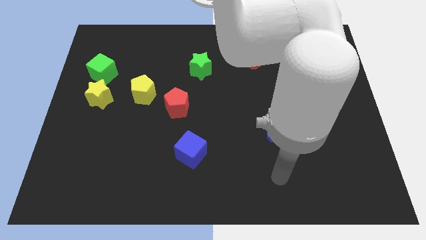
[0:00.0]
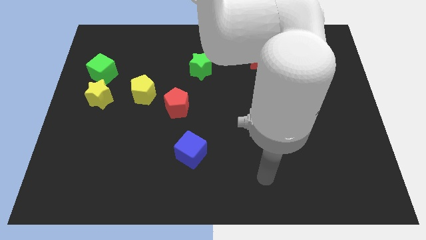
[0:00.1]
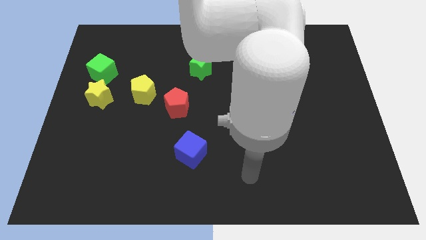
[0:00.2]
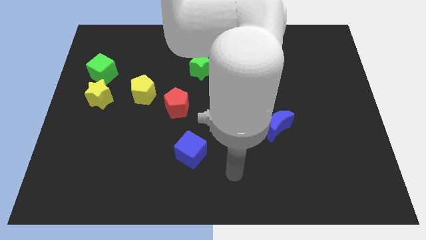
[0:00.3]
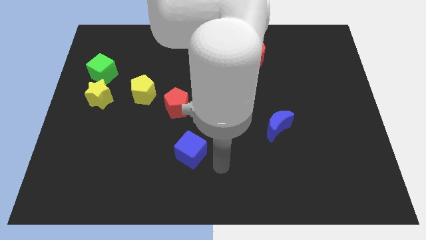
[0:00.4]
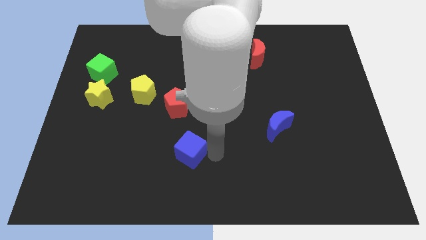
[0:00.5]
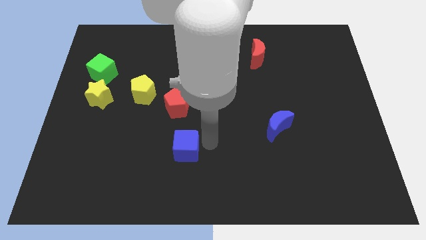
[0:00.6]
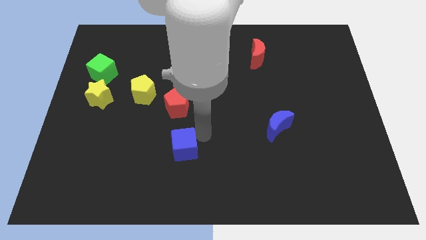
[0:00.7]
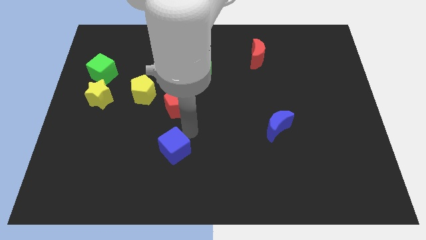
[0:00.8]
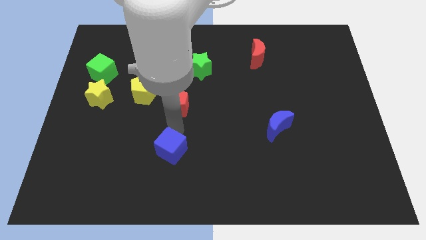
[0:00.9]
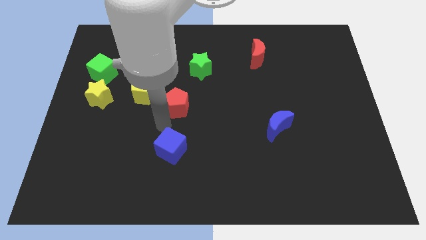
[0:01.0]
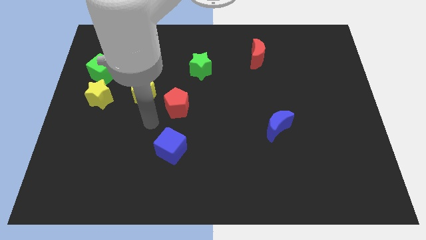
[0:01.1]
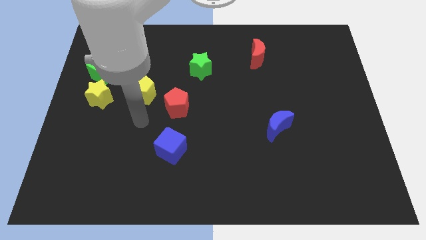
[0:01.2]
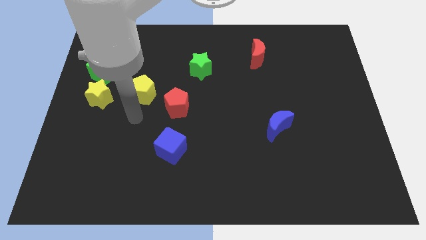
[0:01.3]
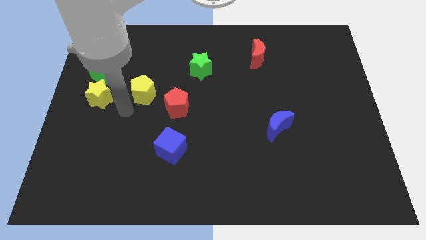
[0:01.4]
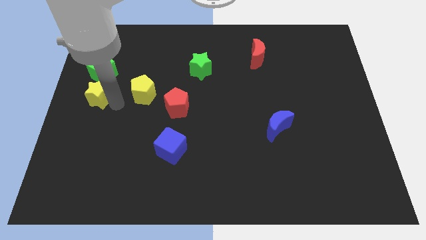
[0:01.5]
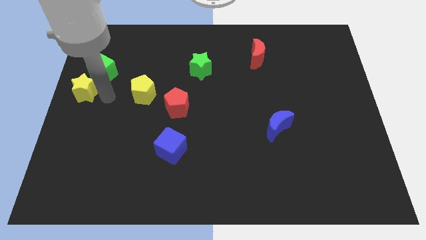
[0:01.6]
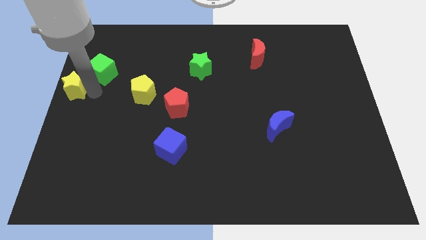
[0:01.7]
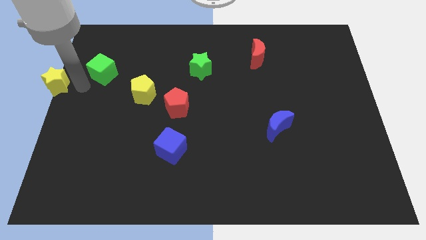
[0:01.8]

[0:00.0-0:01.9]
move the green cube away from the yellow star

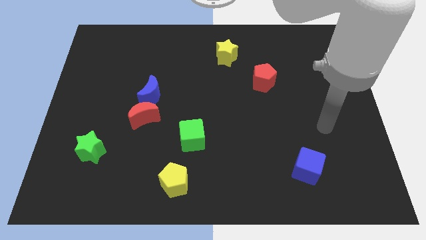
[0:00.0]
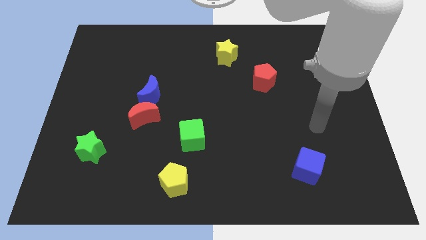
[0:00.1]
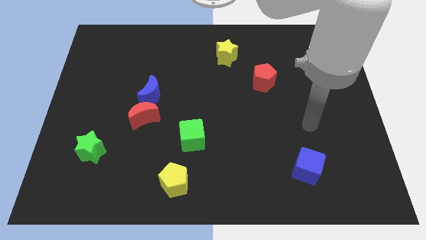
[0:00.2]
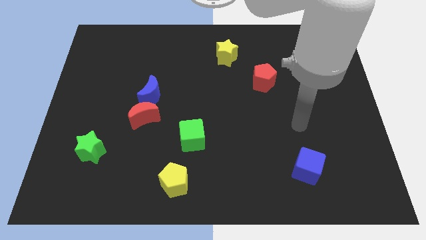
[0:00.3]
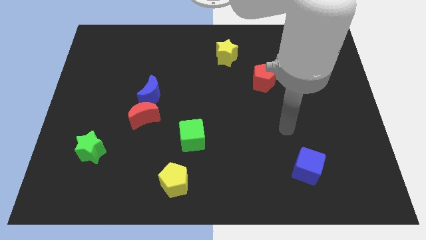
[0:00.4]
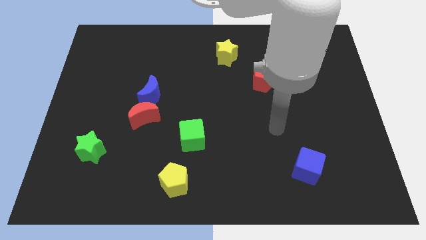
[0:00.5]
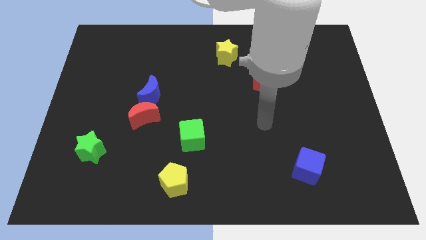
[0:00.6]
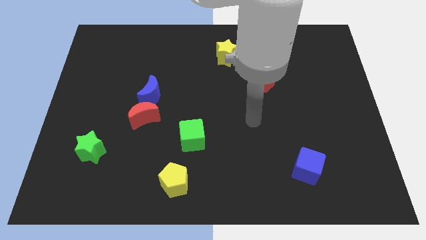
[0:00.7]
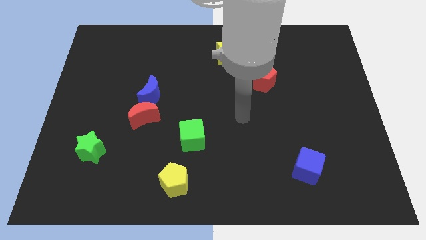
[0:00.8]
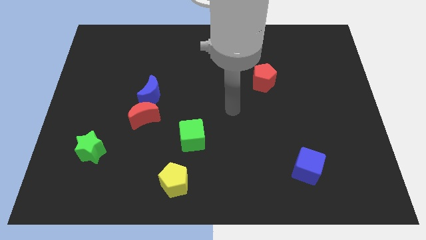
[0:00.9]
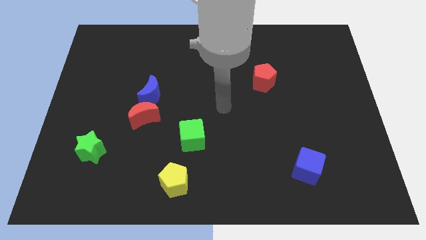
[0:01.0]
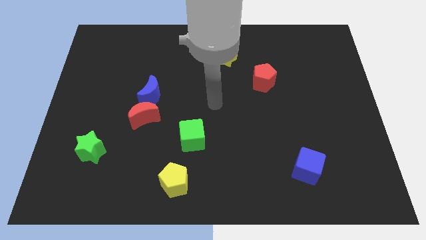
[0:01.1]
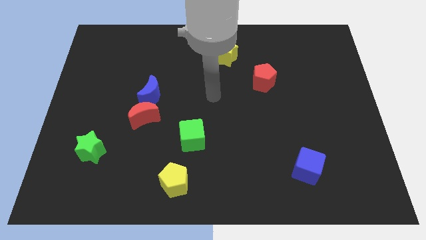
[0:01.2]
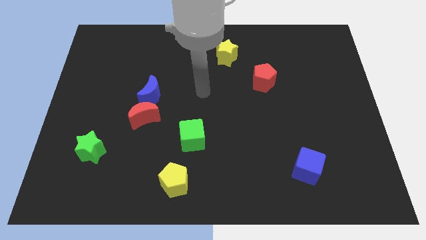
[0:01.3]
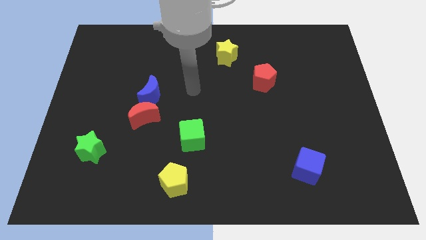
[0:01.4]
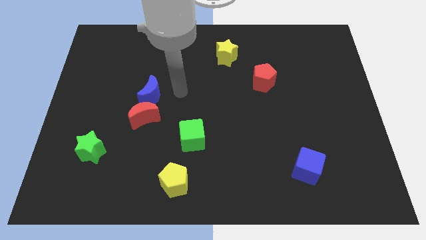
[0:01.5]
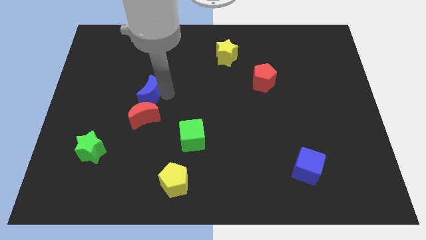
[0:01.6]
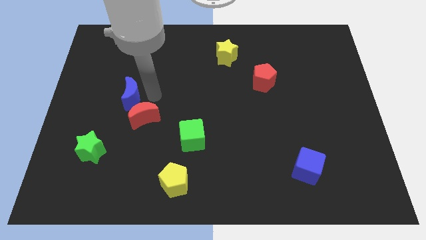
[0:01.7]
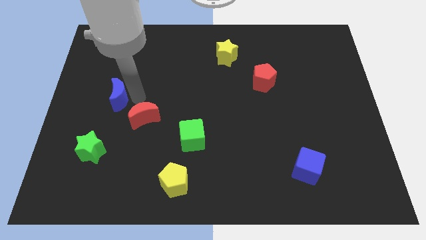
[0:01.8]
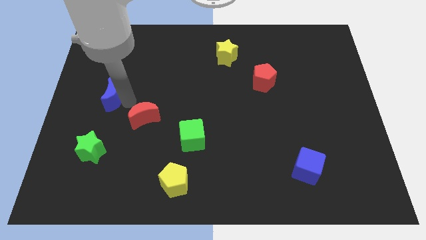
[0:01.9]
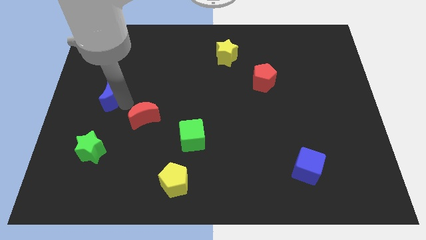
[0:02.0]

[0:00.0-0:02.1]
move the red moon away from the blue moon

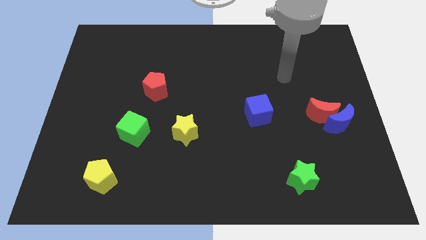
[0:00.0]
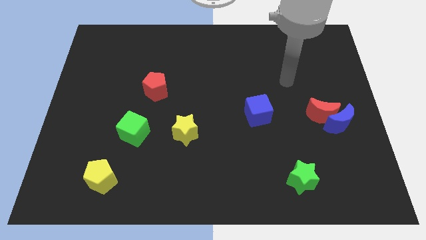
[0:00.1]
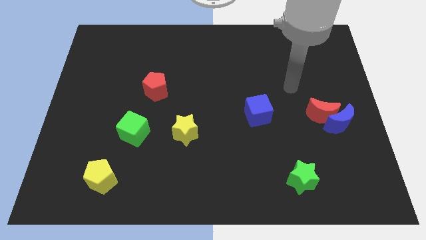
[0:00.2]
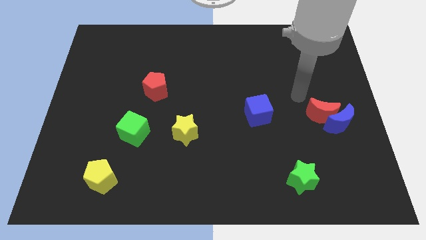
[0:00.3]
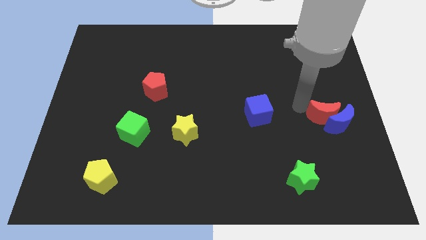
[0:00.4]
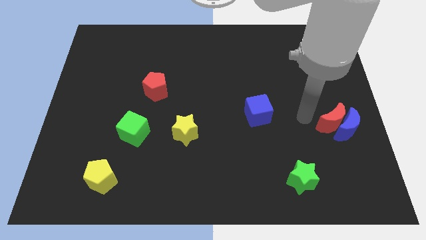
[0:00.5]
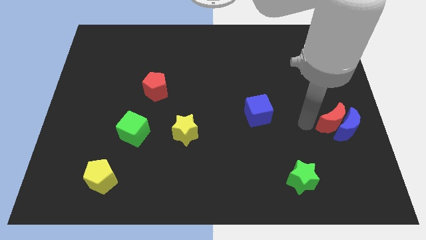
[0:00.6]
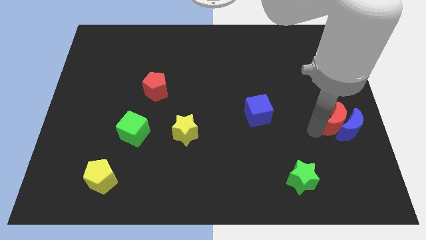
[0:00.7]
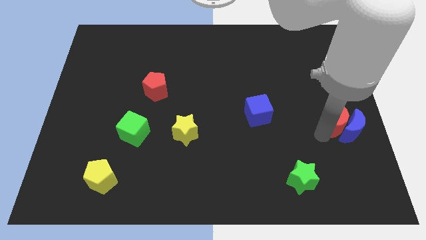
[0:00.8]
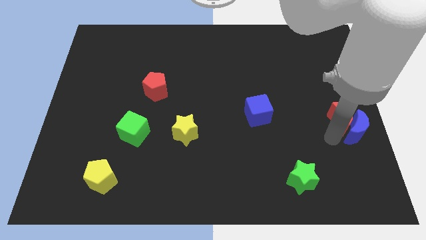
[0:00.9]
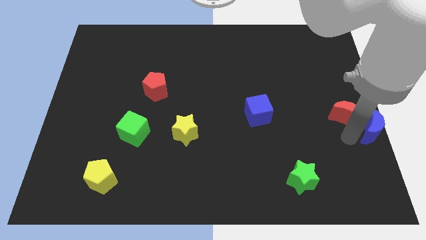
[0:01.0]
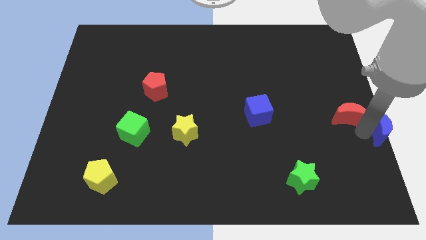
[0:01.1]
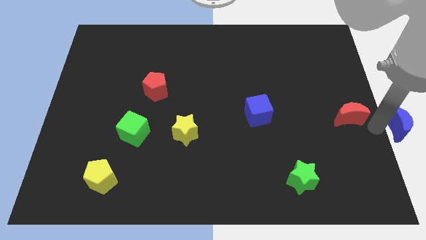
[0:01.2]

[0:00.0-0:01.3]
separate the red moon from the blue moon

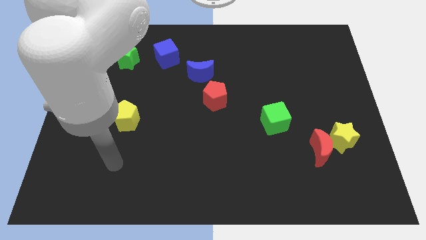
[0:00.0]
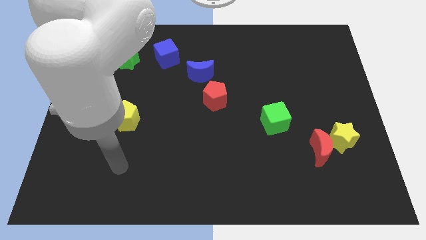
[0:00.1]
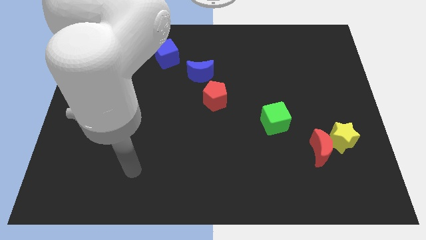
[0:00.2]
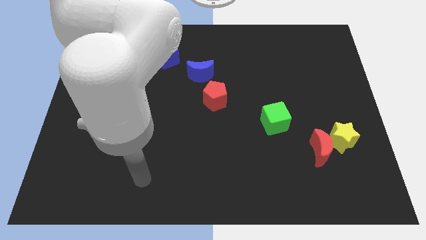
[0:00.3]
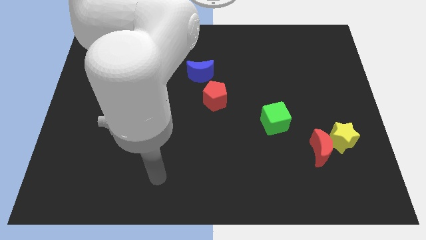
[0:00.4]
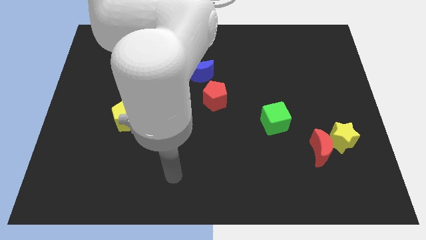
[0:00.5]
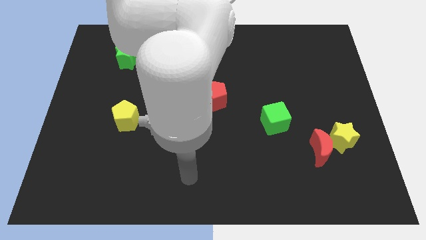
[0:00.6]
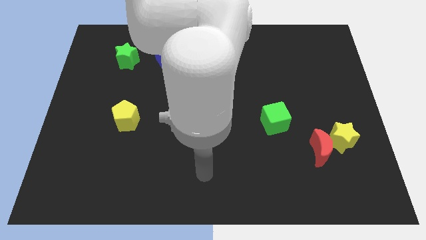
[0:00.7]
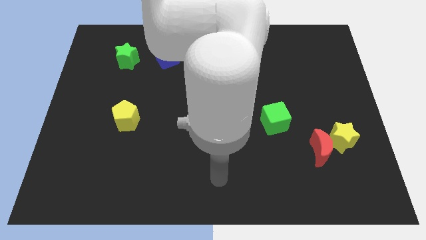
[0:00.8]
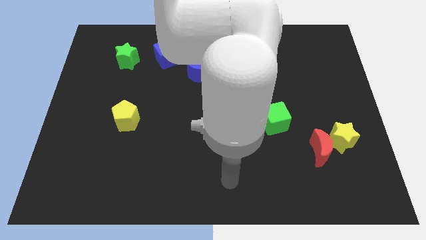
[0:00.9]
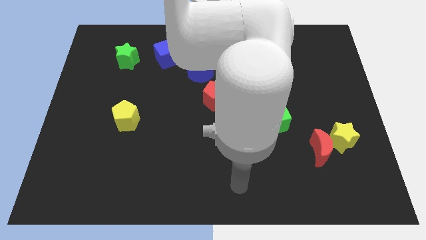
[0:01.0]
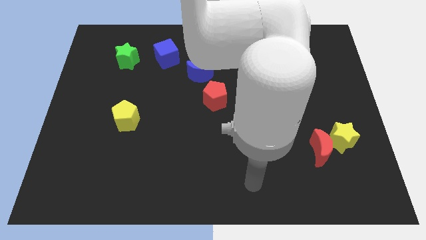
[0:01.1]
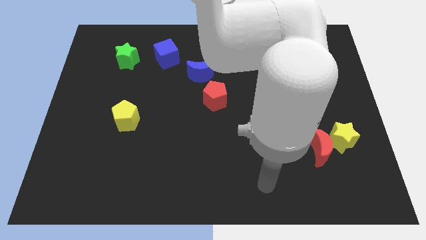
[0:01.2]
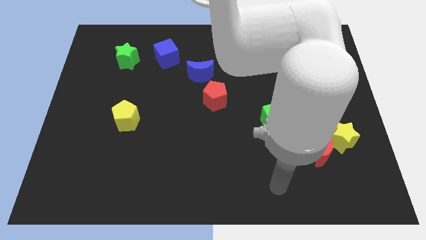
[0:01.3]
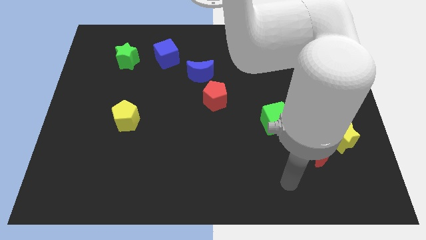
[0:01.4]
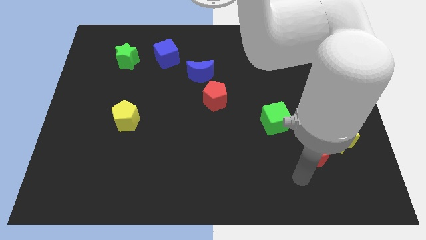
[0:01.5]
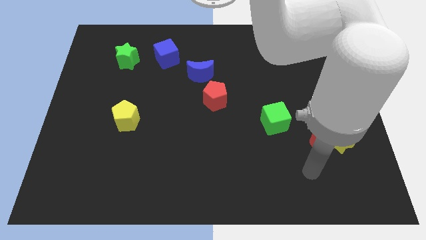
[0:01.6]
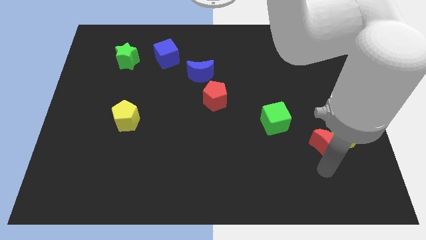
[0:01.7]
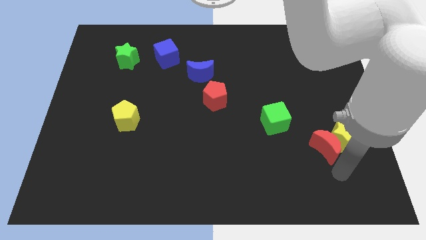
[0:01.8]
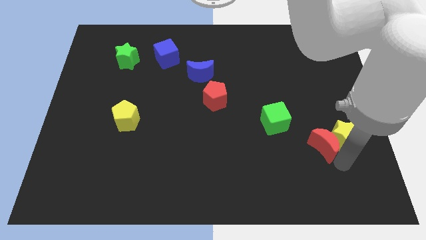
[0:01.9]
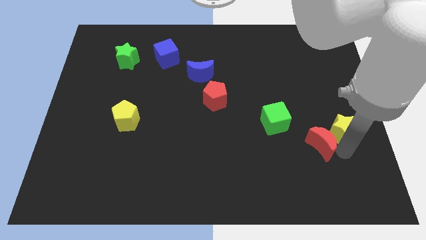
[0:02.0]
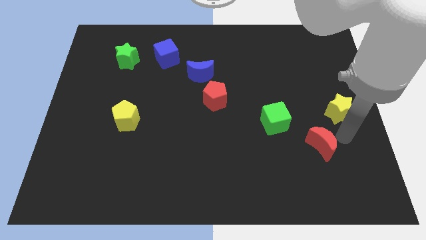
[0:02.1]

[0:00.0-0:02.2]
move the red moon away from the yellow star

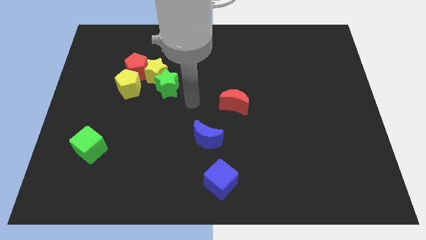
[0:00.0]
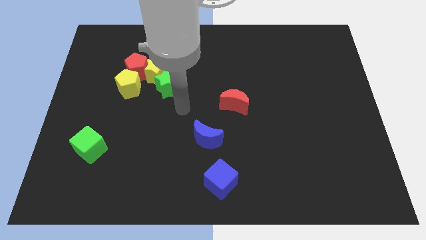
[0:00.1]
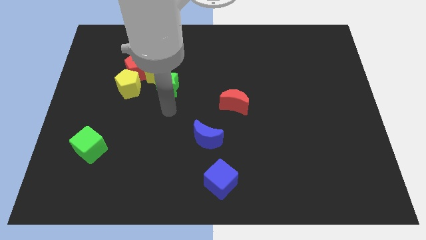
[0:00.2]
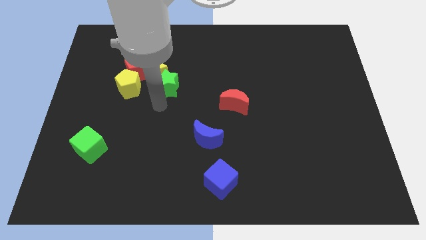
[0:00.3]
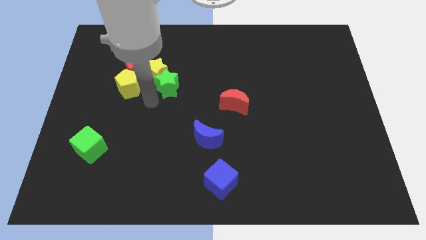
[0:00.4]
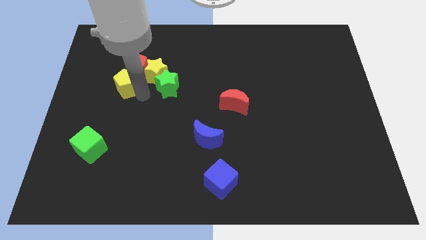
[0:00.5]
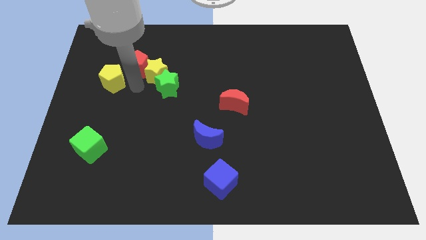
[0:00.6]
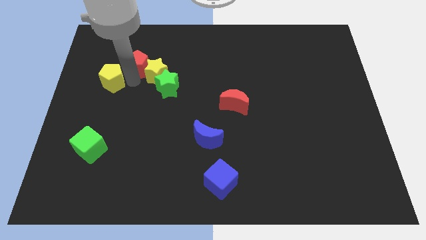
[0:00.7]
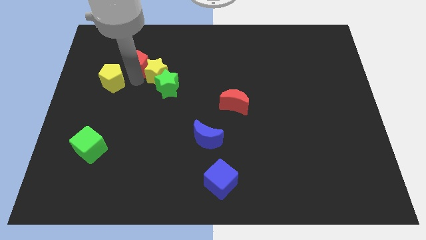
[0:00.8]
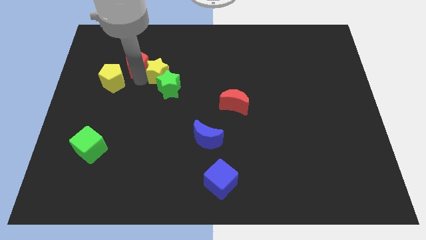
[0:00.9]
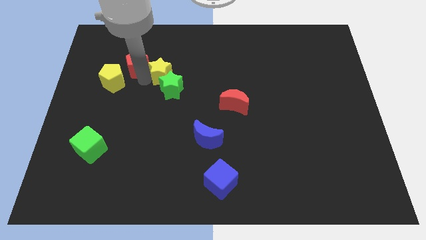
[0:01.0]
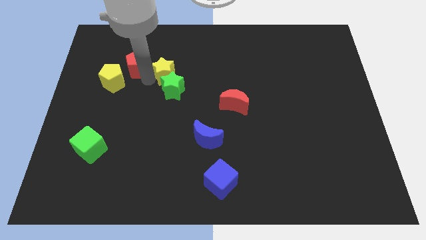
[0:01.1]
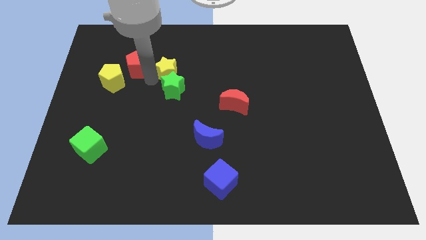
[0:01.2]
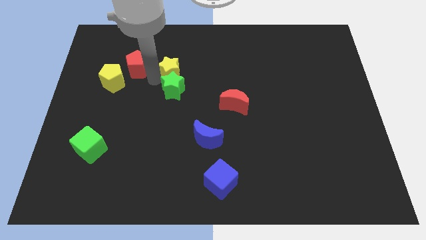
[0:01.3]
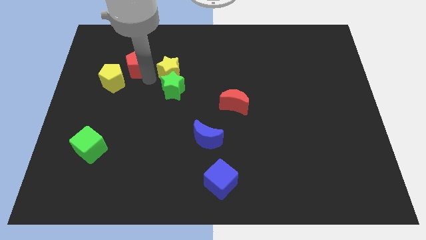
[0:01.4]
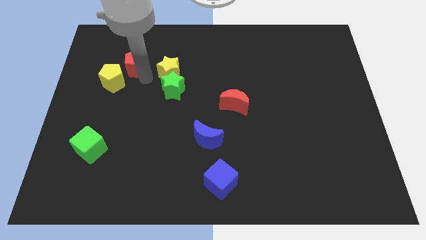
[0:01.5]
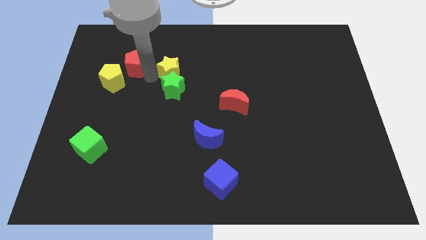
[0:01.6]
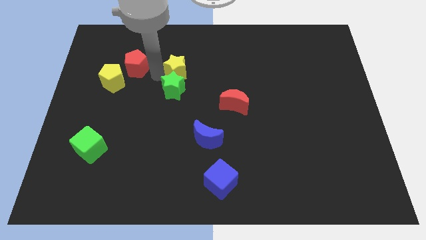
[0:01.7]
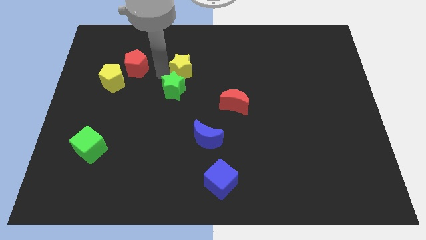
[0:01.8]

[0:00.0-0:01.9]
pull the yellow star apart from the red pentagon, green star, and yellow pentagon
